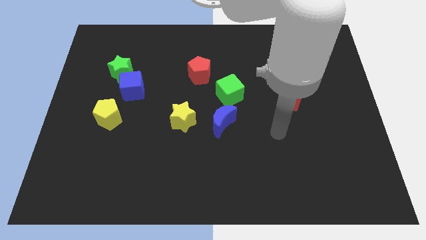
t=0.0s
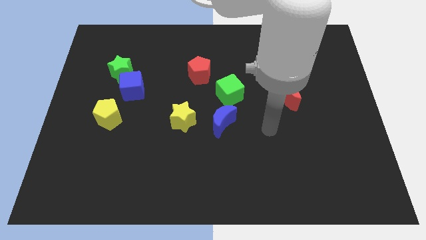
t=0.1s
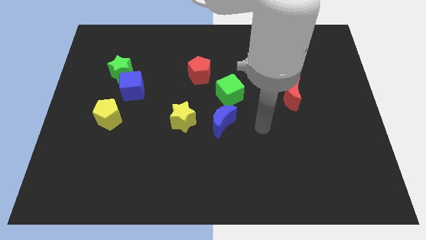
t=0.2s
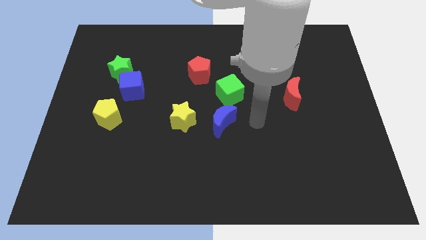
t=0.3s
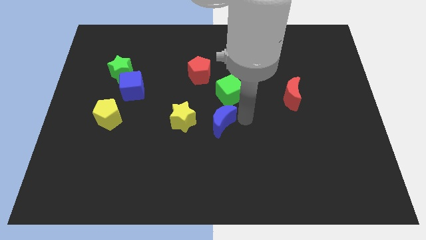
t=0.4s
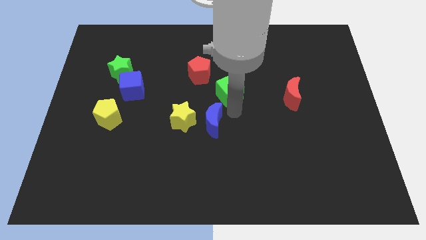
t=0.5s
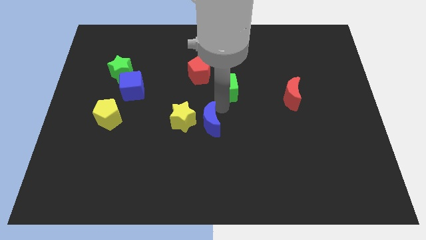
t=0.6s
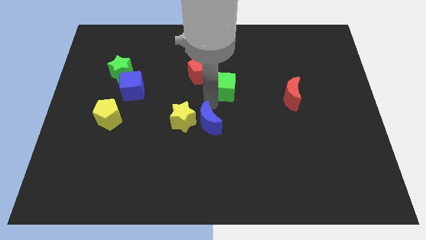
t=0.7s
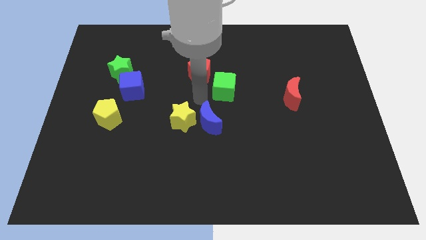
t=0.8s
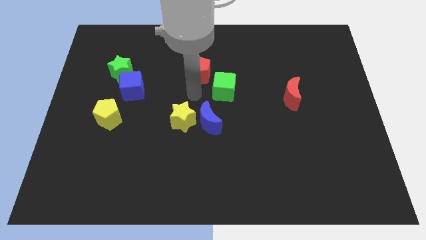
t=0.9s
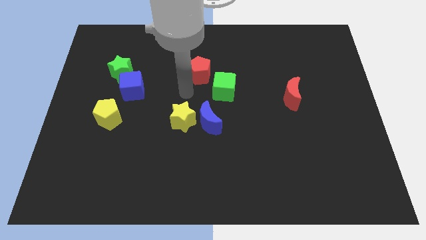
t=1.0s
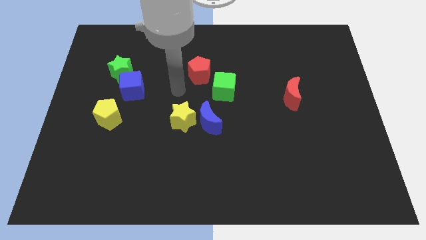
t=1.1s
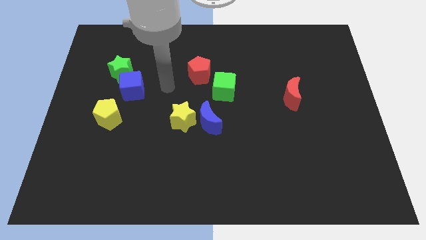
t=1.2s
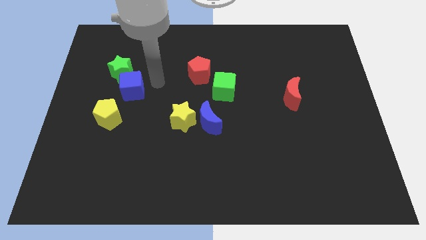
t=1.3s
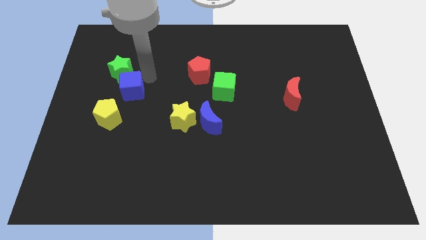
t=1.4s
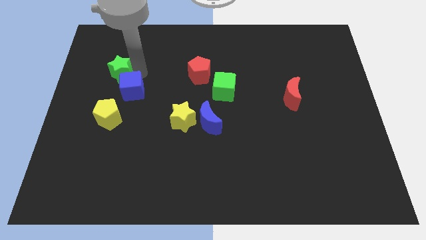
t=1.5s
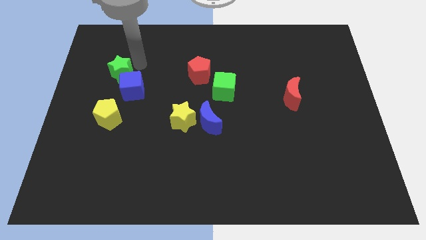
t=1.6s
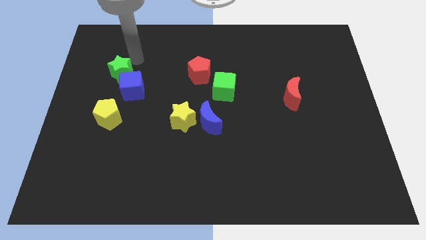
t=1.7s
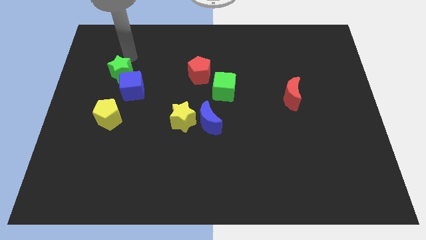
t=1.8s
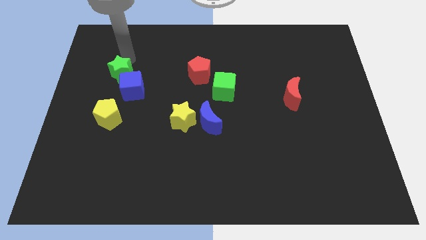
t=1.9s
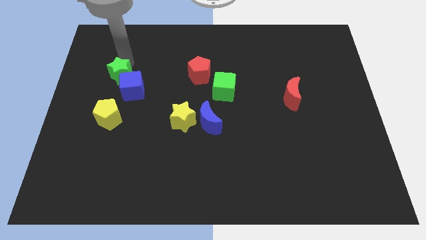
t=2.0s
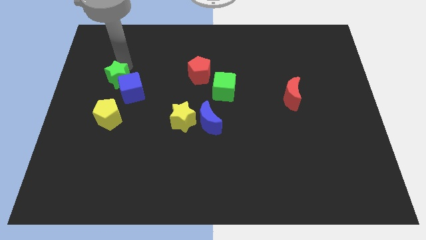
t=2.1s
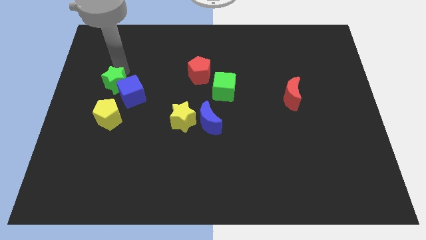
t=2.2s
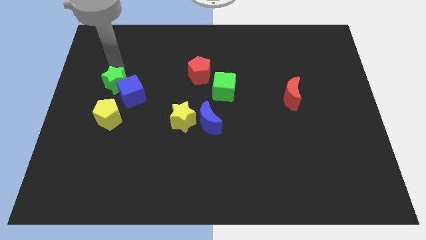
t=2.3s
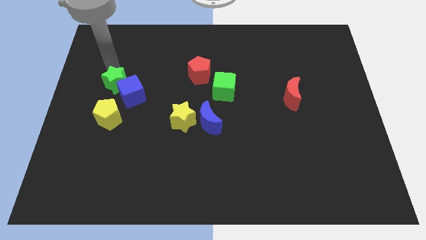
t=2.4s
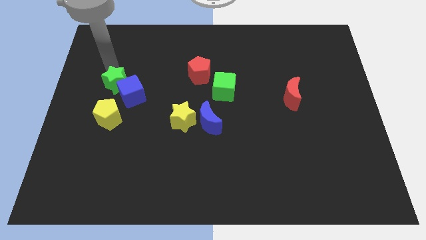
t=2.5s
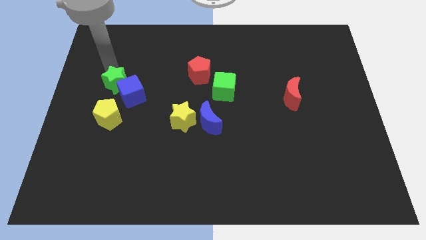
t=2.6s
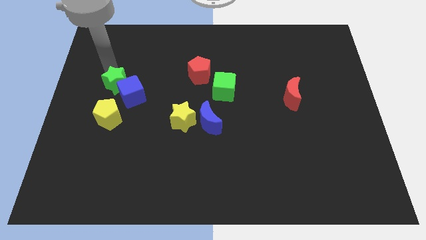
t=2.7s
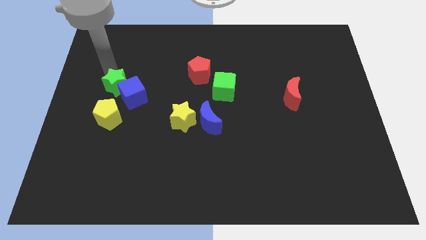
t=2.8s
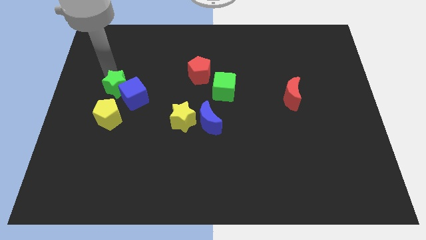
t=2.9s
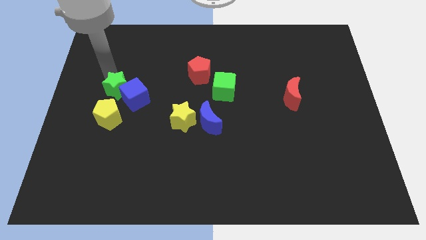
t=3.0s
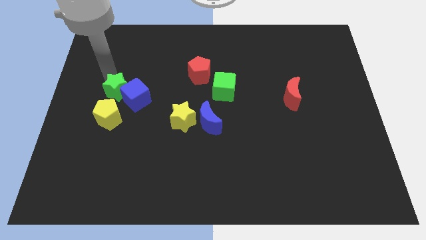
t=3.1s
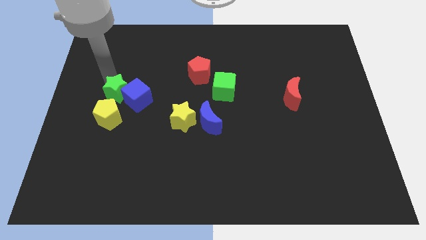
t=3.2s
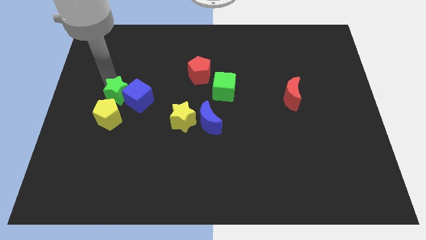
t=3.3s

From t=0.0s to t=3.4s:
slide the green star down slightly

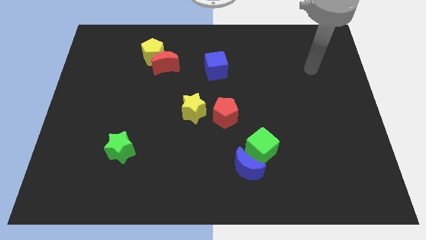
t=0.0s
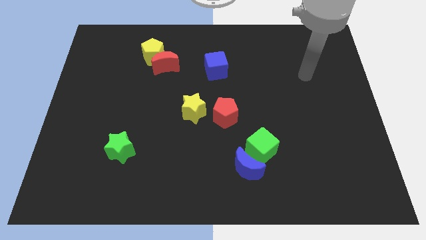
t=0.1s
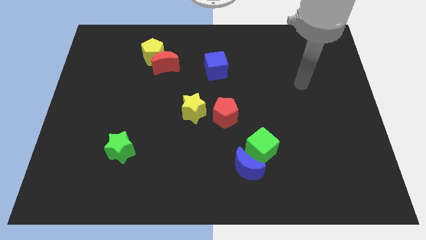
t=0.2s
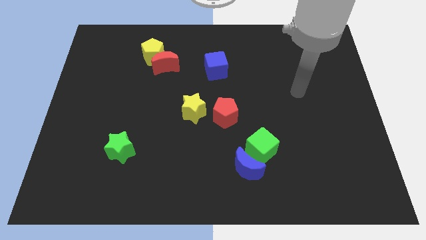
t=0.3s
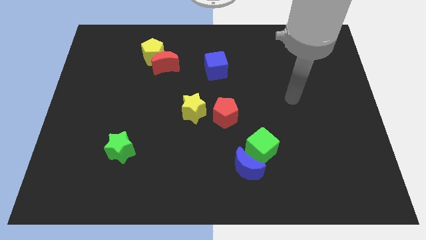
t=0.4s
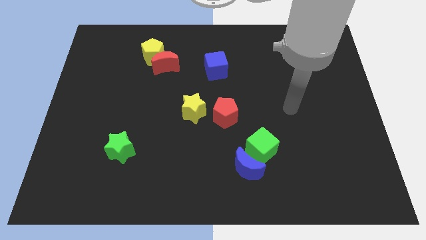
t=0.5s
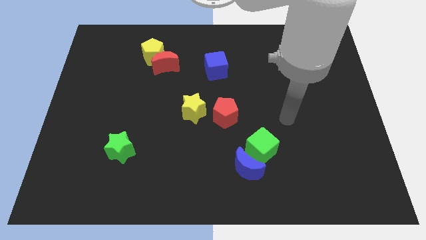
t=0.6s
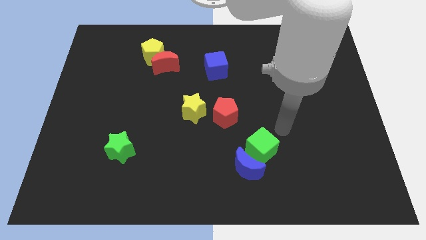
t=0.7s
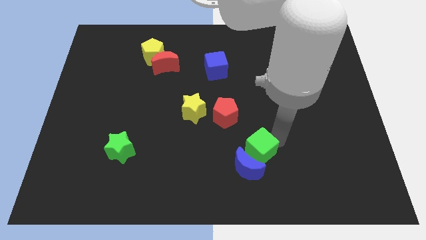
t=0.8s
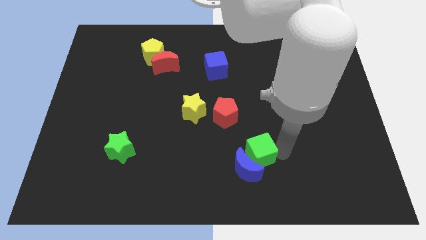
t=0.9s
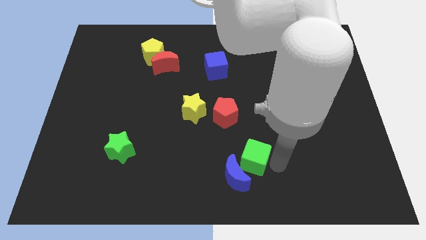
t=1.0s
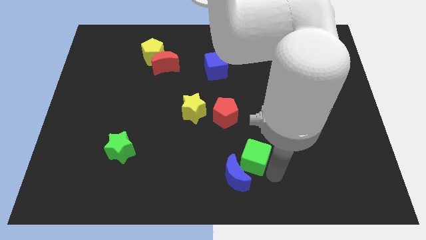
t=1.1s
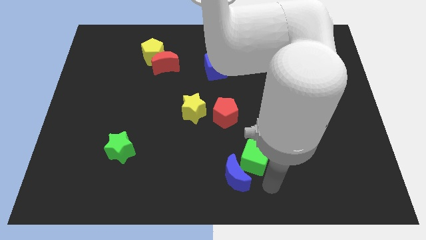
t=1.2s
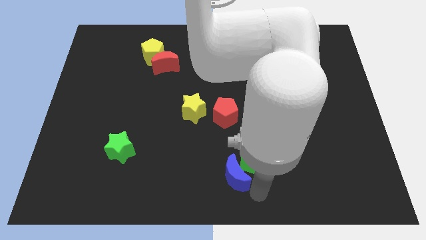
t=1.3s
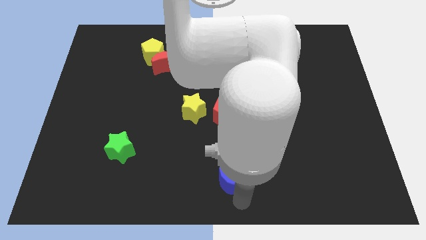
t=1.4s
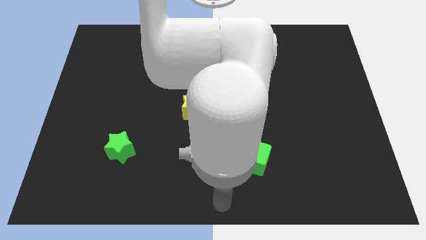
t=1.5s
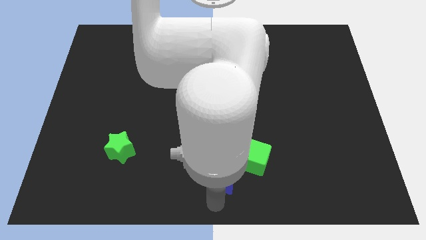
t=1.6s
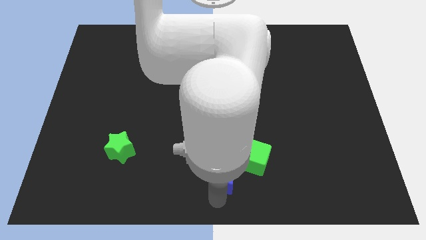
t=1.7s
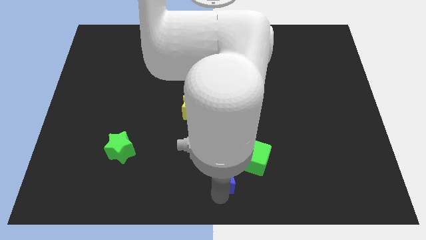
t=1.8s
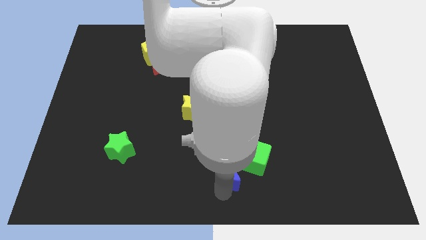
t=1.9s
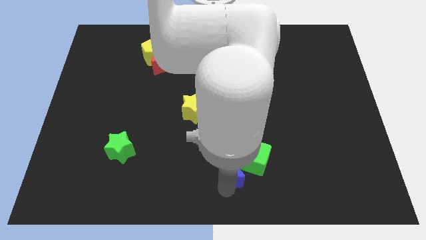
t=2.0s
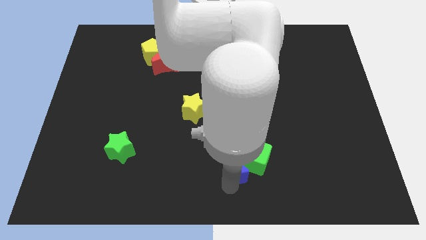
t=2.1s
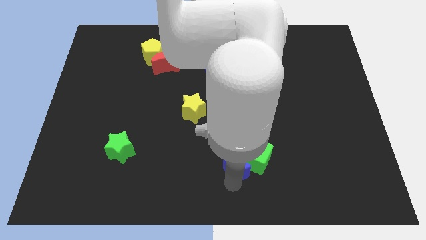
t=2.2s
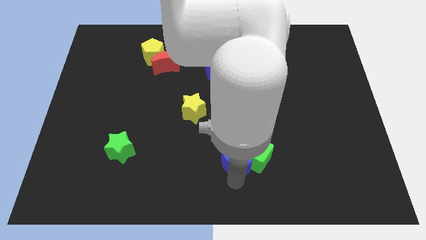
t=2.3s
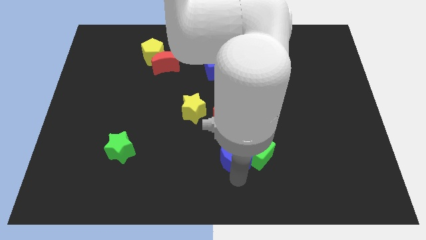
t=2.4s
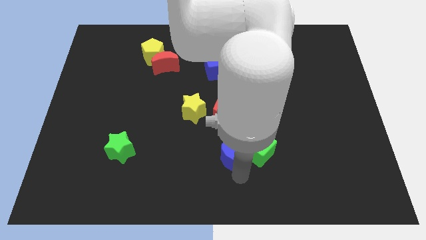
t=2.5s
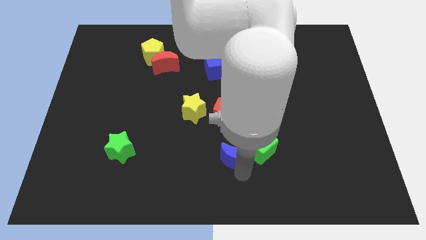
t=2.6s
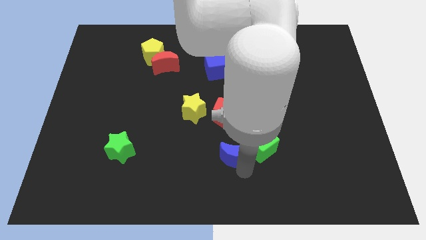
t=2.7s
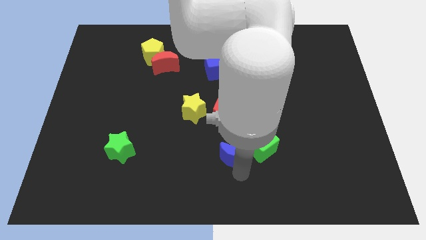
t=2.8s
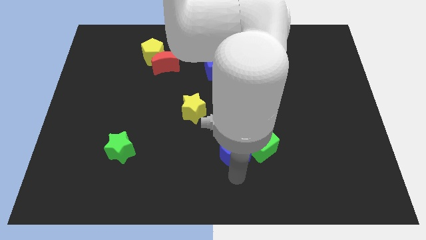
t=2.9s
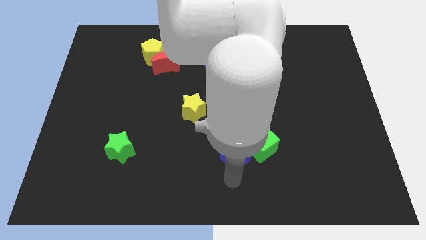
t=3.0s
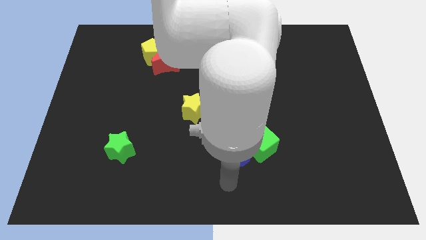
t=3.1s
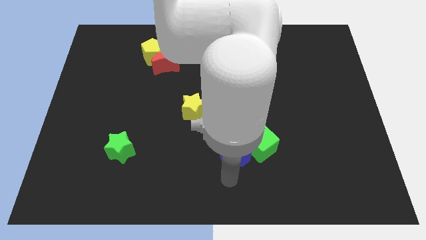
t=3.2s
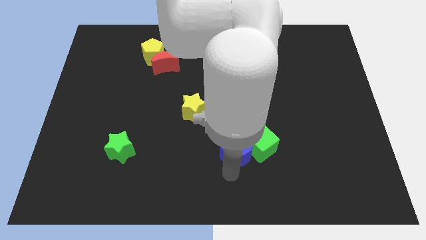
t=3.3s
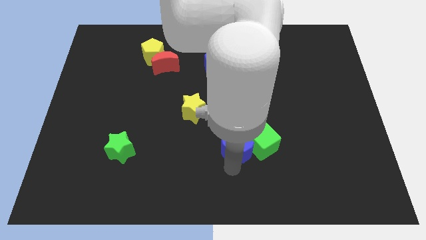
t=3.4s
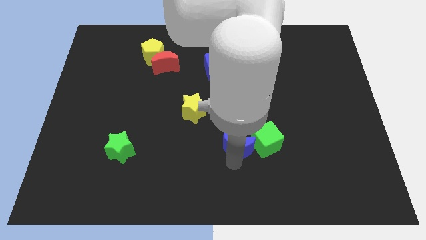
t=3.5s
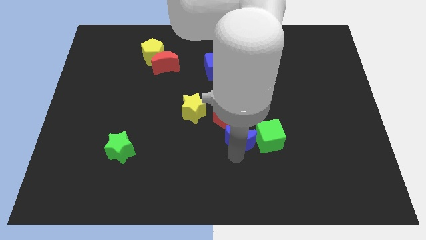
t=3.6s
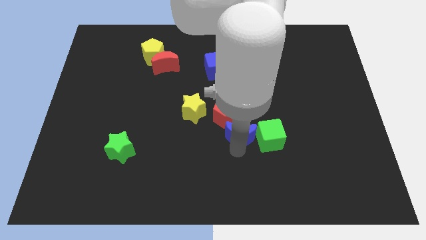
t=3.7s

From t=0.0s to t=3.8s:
slide the blue moon slightly up

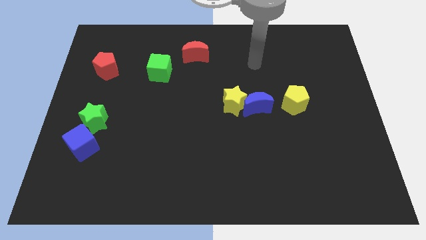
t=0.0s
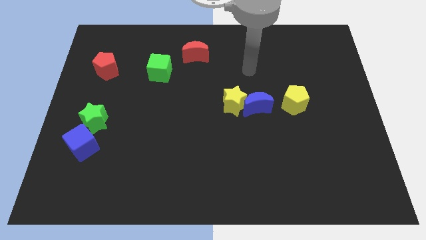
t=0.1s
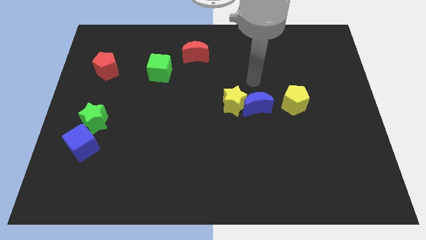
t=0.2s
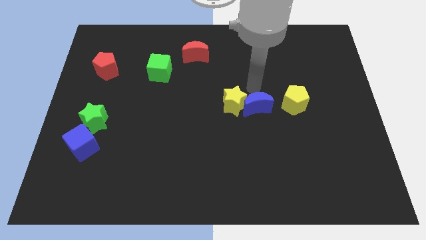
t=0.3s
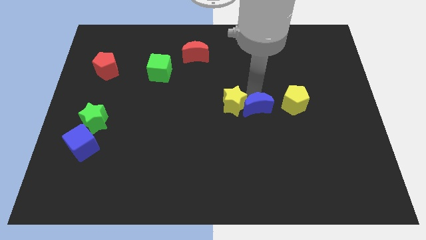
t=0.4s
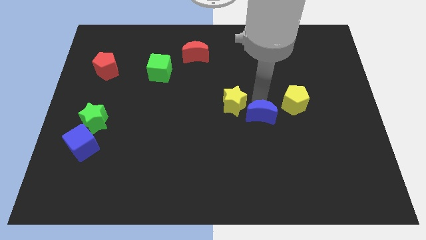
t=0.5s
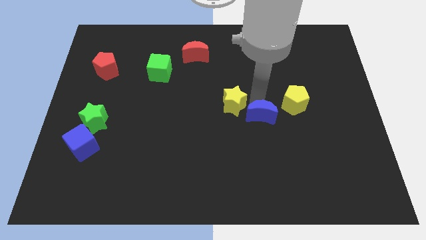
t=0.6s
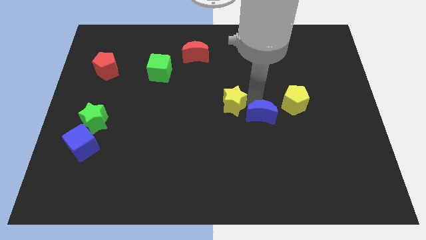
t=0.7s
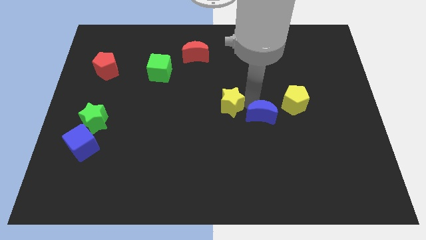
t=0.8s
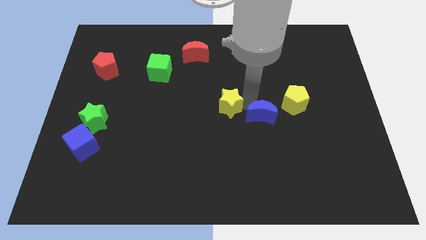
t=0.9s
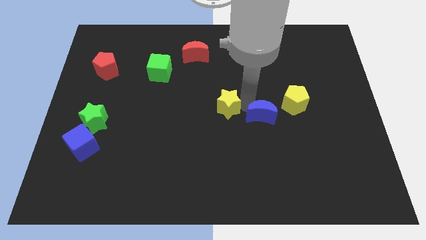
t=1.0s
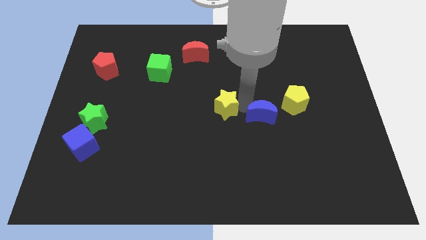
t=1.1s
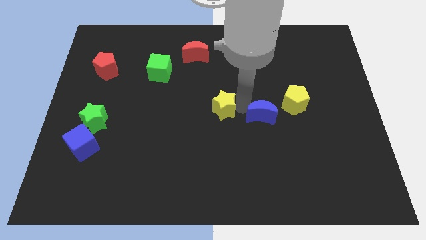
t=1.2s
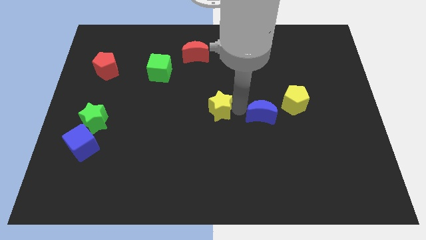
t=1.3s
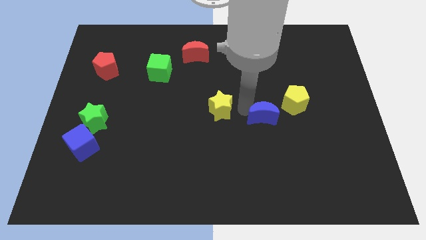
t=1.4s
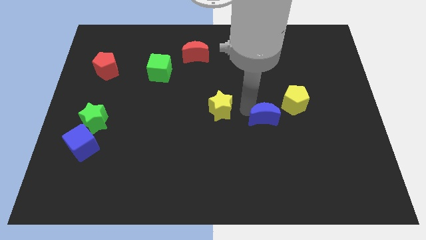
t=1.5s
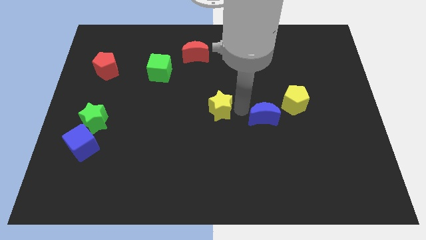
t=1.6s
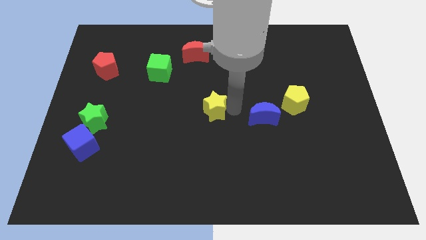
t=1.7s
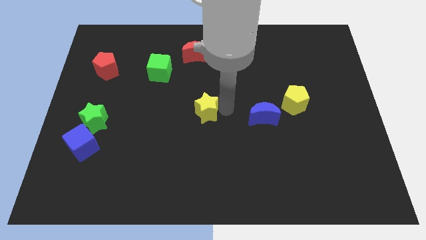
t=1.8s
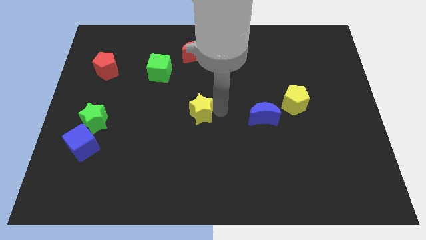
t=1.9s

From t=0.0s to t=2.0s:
push the yellow star a bit to the left
